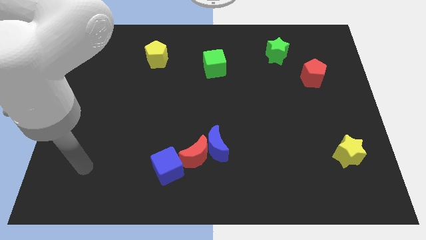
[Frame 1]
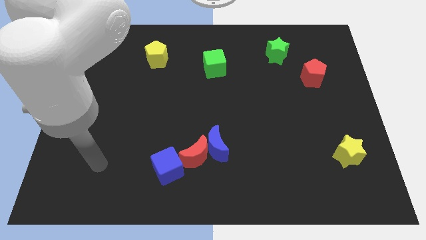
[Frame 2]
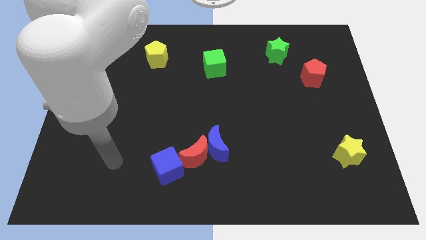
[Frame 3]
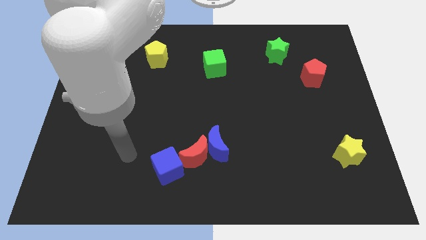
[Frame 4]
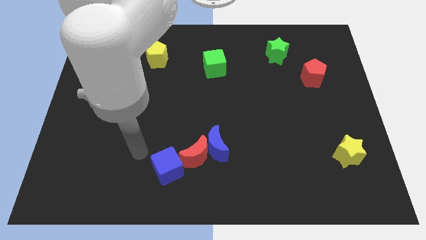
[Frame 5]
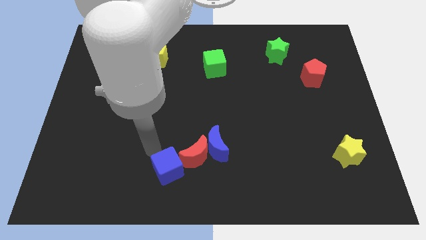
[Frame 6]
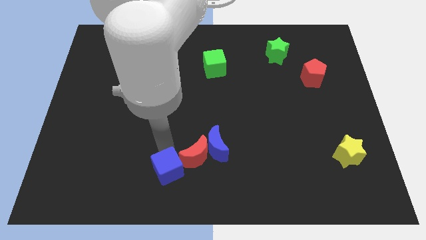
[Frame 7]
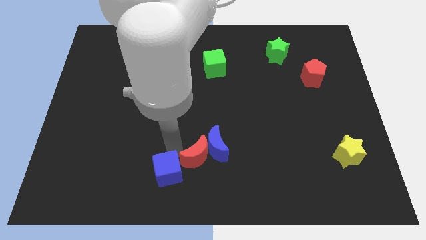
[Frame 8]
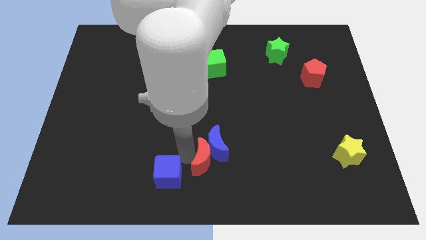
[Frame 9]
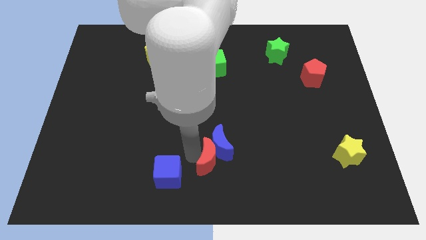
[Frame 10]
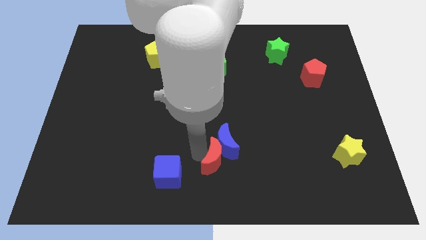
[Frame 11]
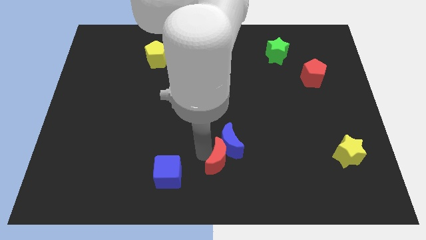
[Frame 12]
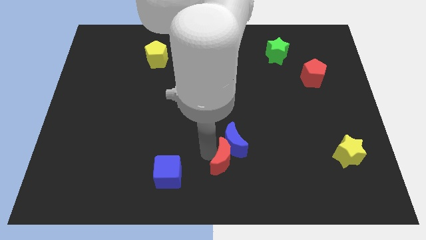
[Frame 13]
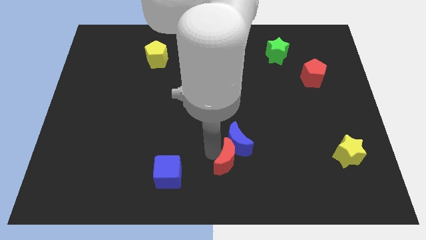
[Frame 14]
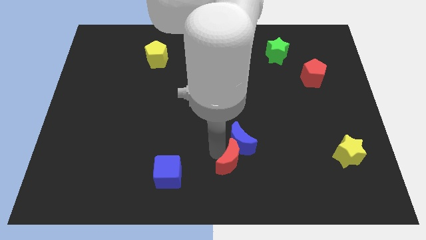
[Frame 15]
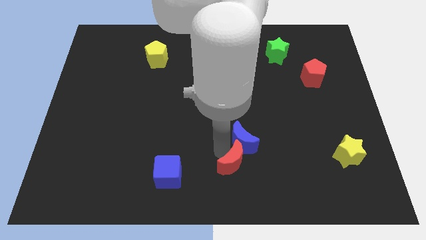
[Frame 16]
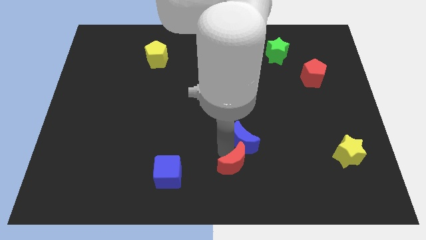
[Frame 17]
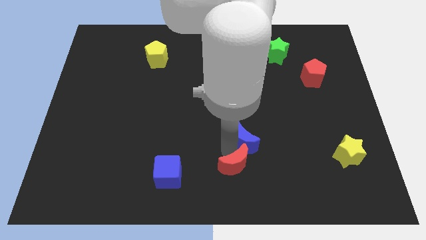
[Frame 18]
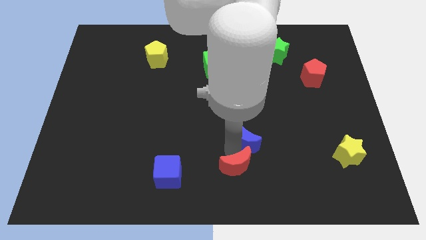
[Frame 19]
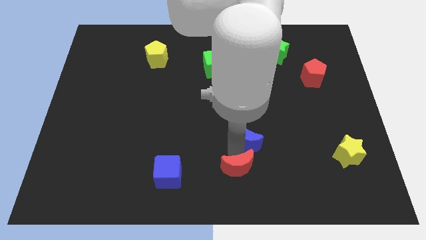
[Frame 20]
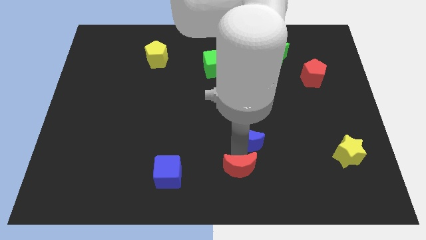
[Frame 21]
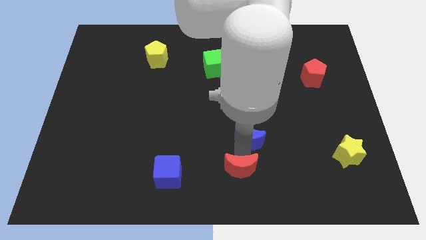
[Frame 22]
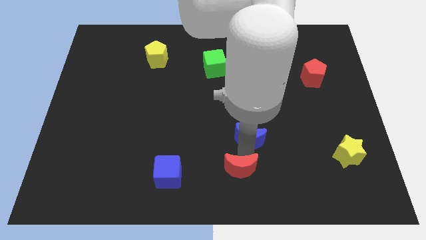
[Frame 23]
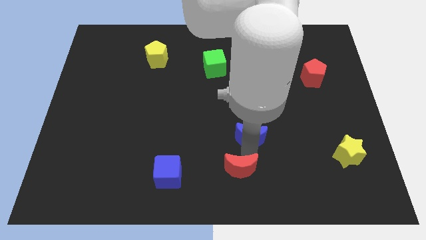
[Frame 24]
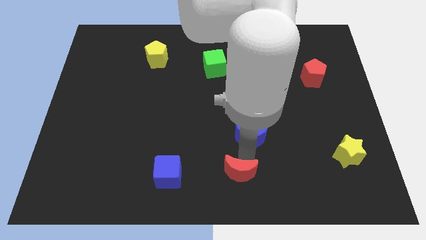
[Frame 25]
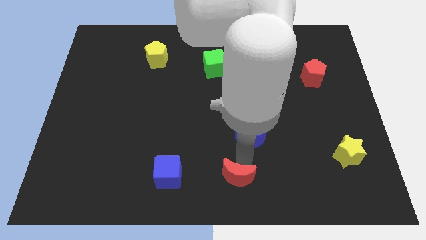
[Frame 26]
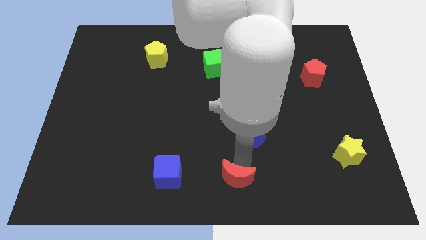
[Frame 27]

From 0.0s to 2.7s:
separate the blue moon from the red moon

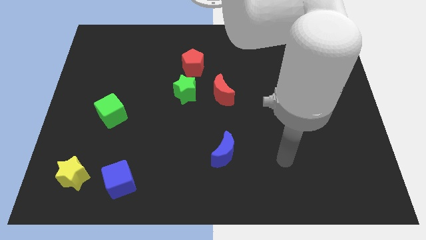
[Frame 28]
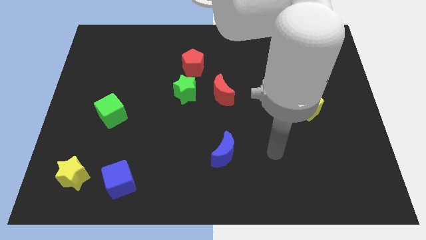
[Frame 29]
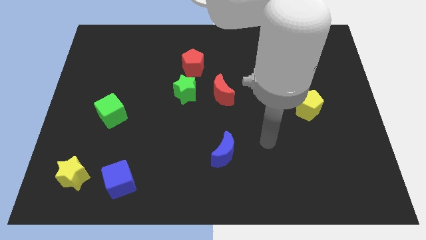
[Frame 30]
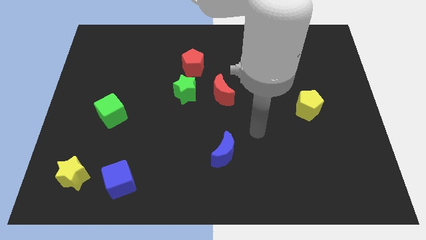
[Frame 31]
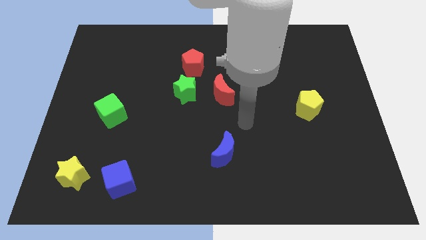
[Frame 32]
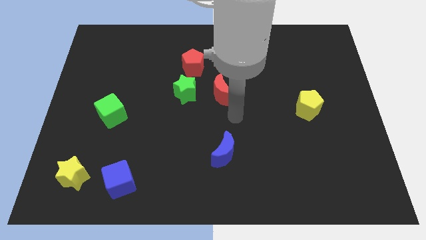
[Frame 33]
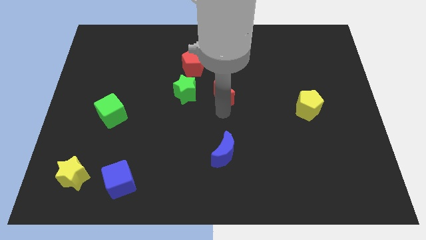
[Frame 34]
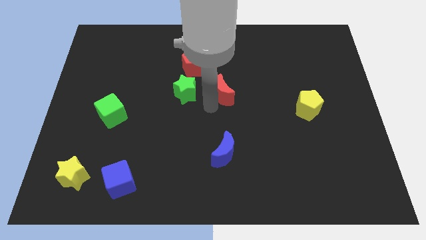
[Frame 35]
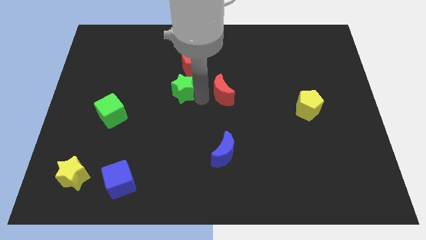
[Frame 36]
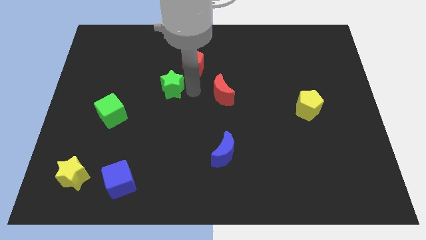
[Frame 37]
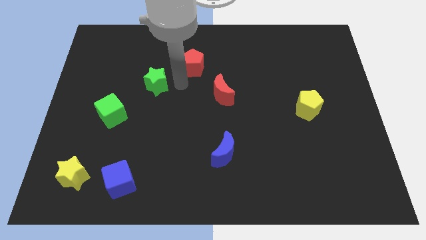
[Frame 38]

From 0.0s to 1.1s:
separate the red pentagon from the green star

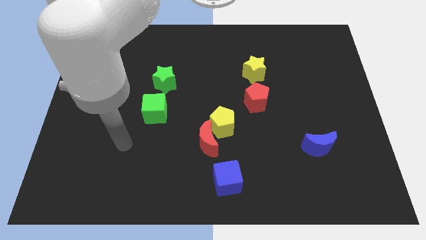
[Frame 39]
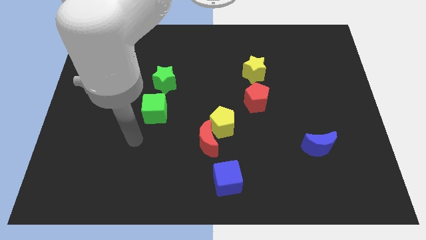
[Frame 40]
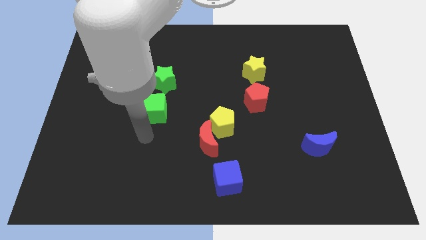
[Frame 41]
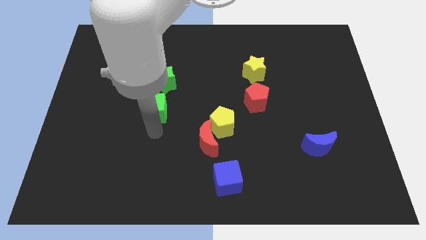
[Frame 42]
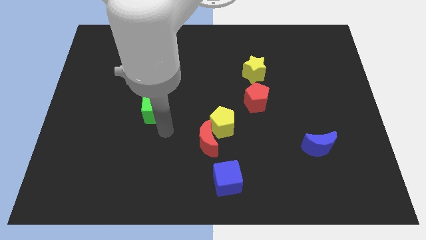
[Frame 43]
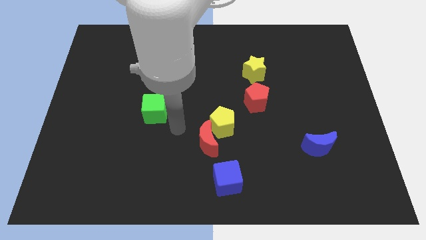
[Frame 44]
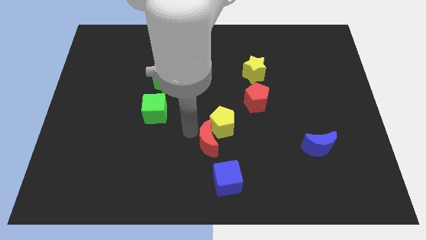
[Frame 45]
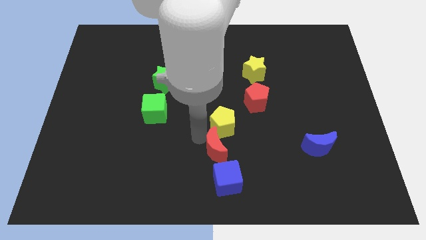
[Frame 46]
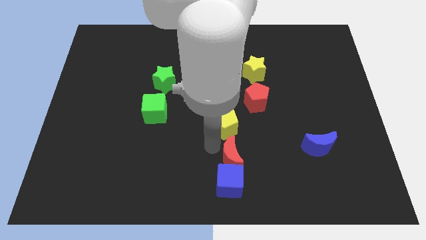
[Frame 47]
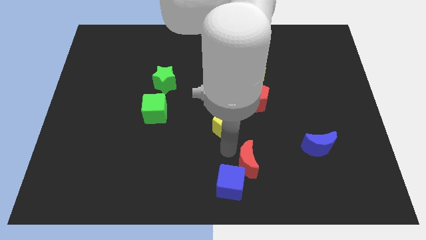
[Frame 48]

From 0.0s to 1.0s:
pull the yellow pentagon apart from the red moon

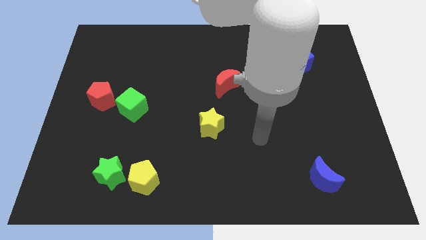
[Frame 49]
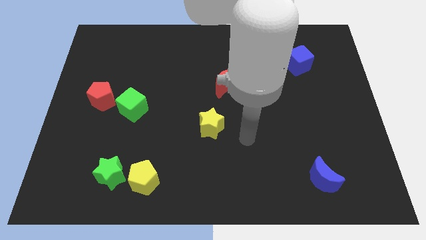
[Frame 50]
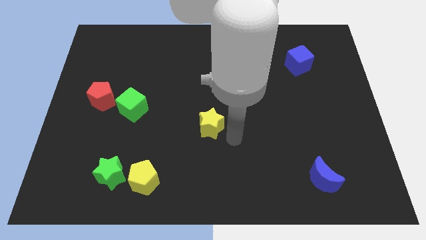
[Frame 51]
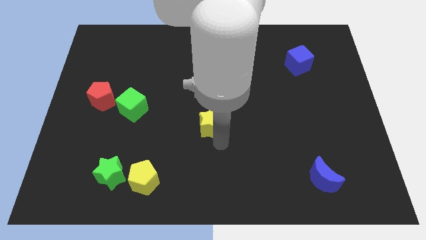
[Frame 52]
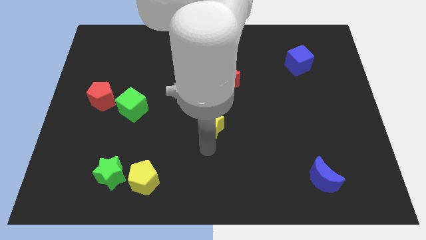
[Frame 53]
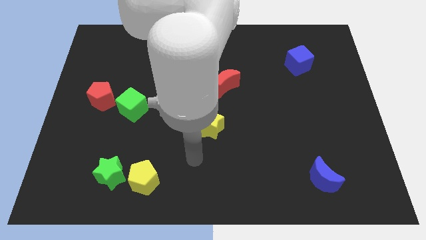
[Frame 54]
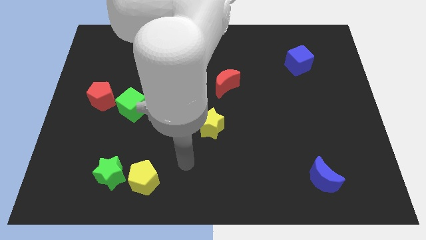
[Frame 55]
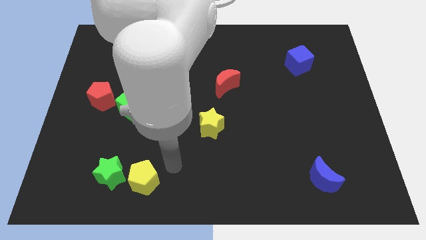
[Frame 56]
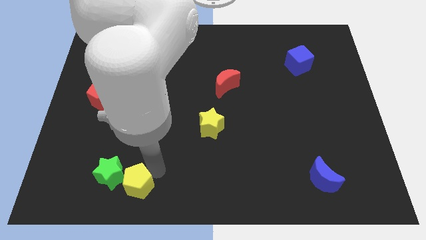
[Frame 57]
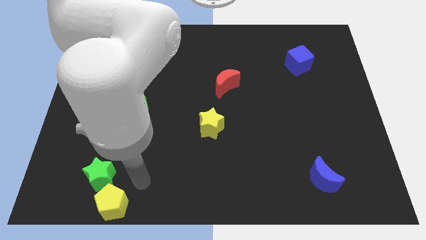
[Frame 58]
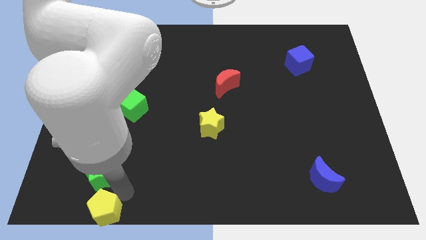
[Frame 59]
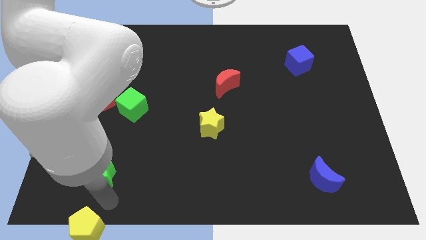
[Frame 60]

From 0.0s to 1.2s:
pull the green star apart from the yellow pentagon

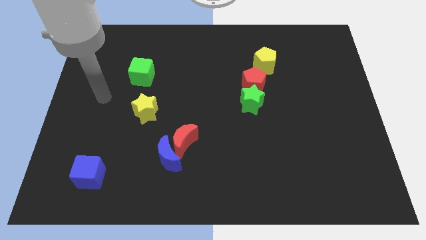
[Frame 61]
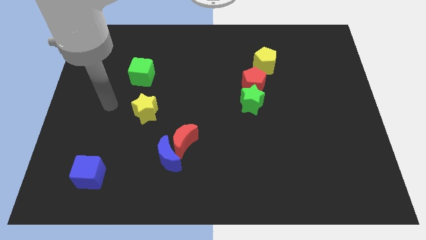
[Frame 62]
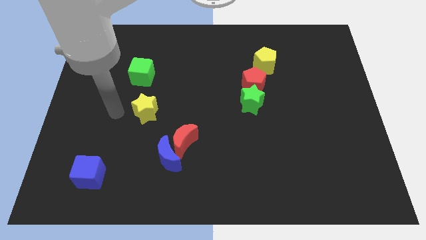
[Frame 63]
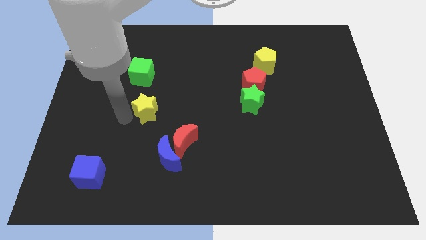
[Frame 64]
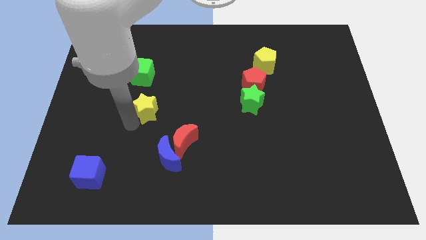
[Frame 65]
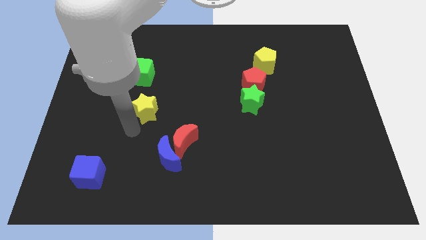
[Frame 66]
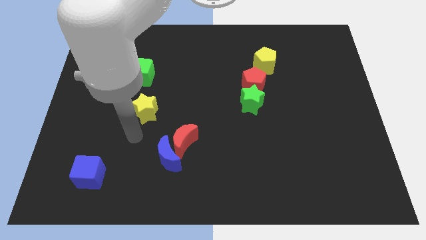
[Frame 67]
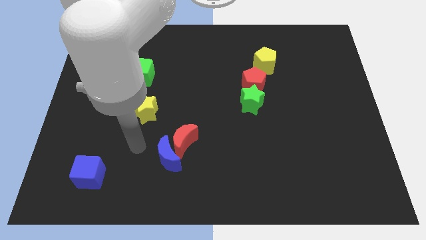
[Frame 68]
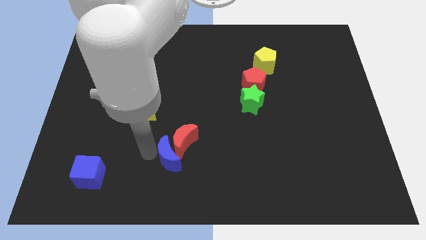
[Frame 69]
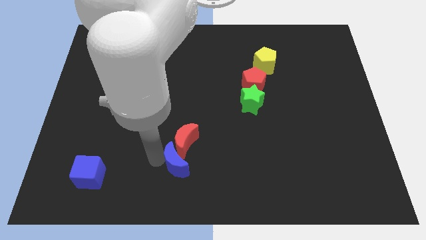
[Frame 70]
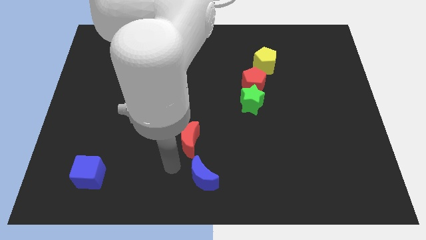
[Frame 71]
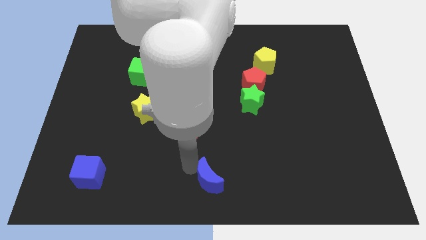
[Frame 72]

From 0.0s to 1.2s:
move the red moon away from the blue moon

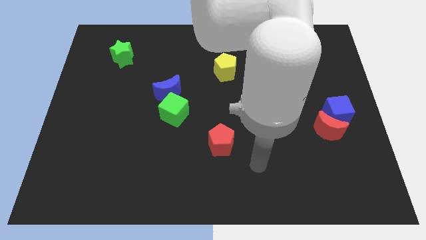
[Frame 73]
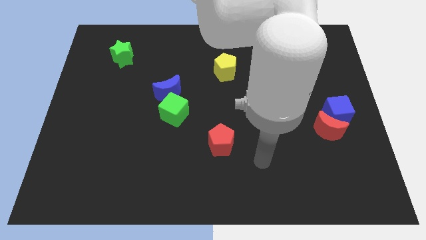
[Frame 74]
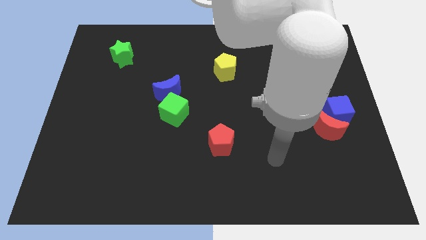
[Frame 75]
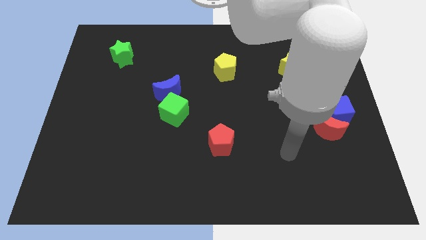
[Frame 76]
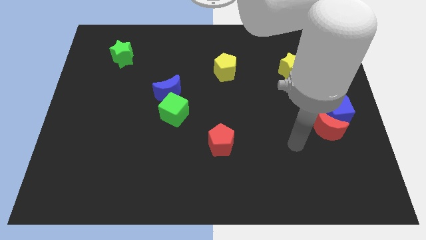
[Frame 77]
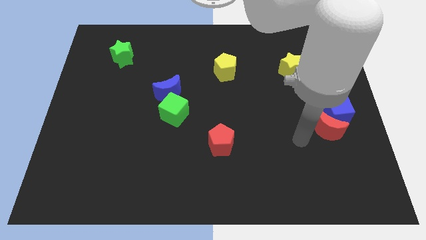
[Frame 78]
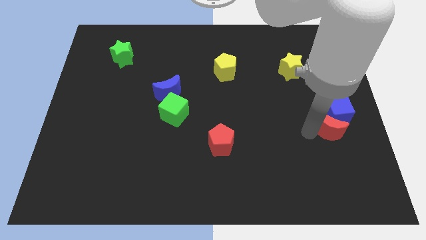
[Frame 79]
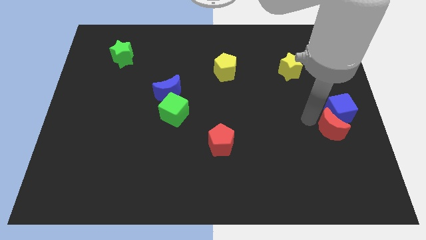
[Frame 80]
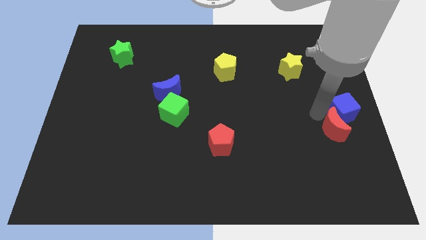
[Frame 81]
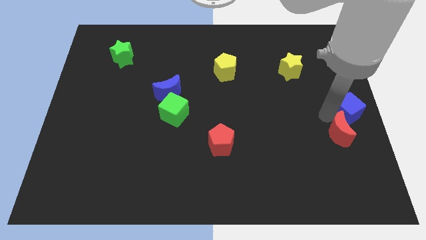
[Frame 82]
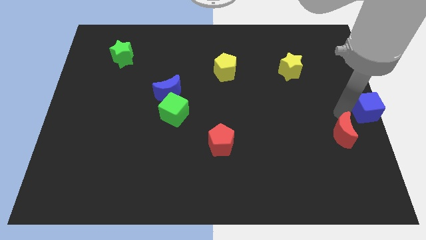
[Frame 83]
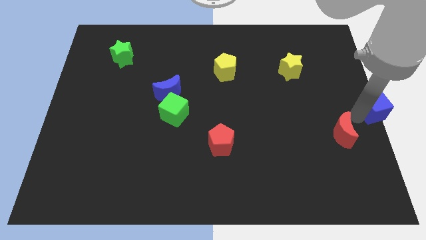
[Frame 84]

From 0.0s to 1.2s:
pull the red moon apart from the blue cube

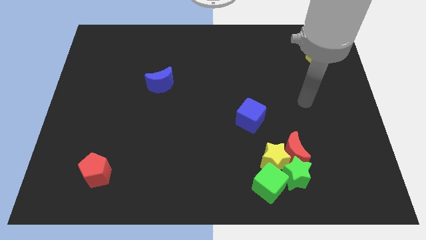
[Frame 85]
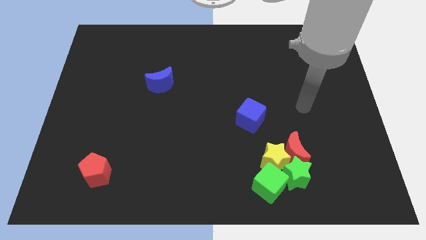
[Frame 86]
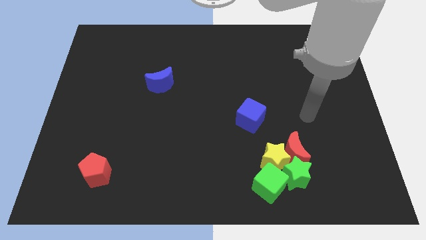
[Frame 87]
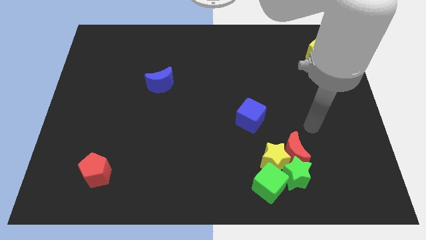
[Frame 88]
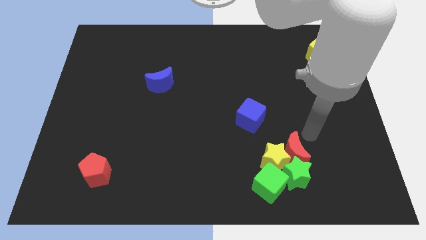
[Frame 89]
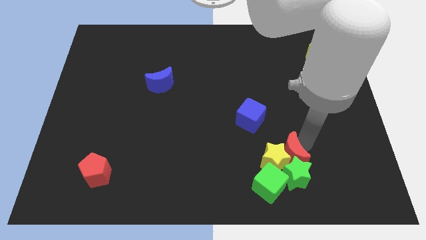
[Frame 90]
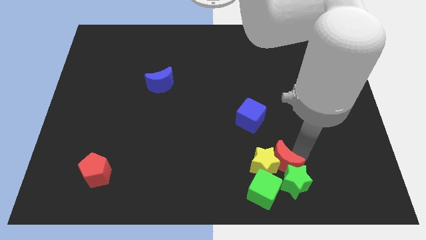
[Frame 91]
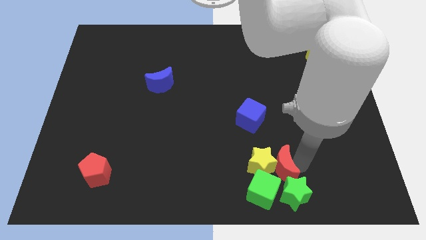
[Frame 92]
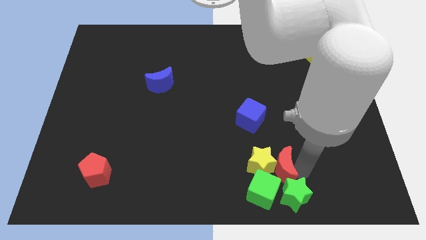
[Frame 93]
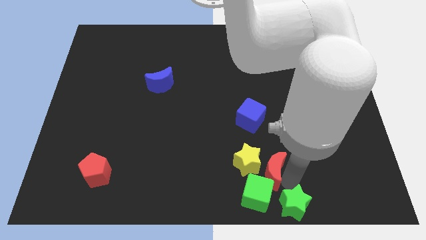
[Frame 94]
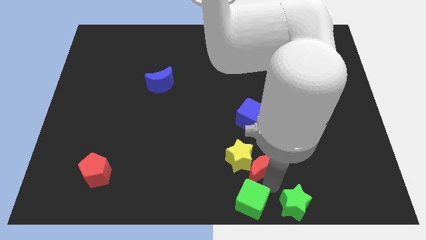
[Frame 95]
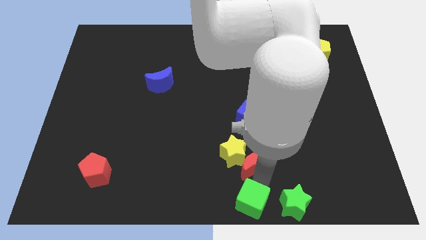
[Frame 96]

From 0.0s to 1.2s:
pull the yellow star apart from the red moon, green star, and green cube
